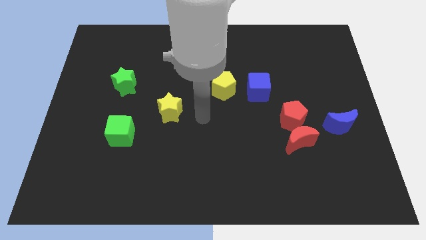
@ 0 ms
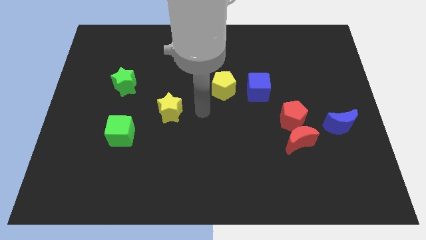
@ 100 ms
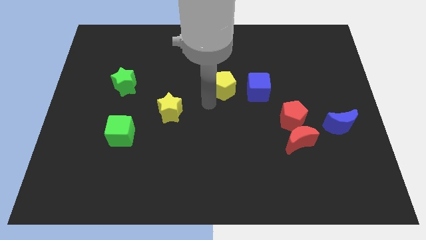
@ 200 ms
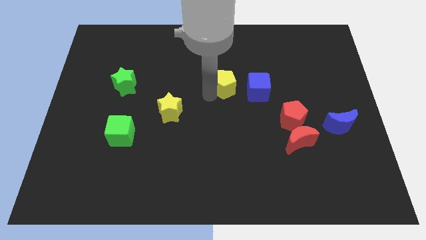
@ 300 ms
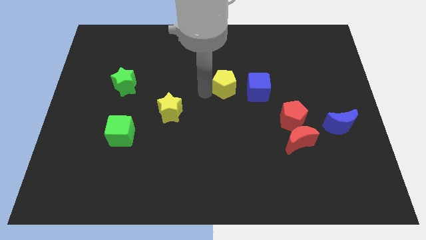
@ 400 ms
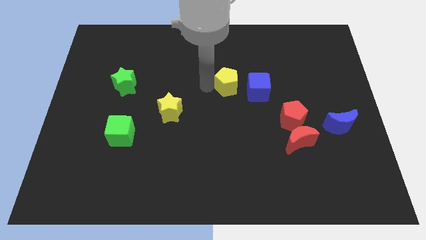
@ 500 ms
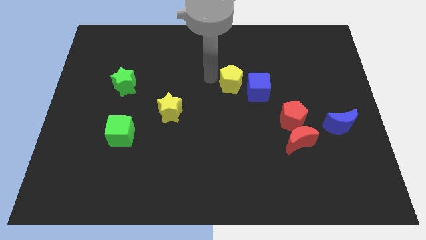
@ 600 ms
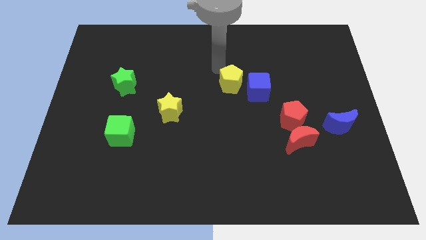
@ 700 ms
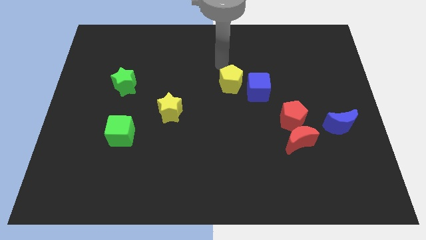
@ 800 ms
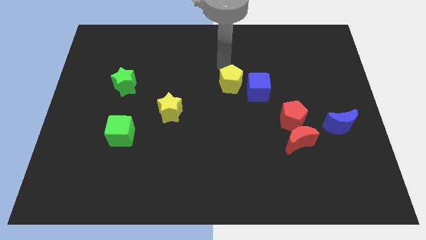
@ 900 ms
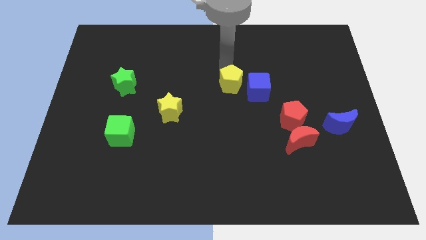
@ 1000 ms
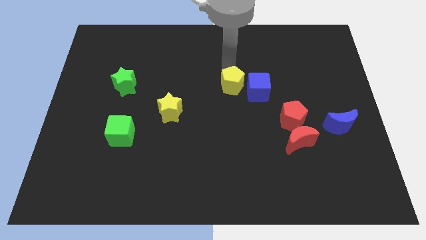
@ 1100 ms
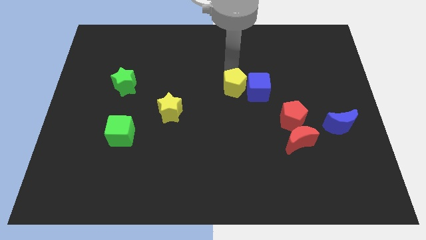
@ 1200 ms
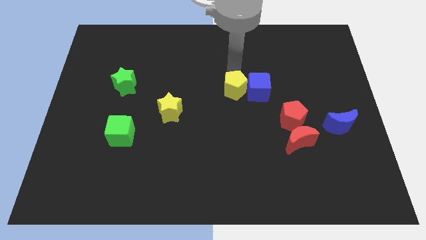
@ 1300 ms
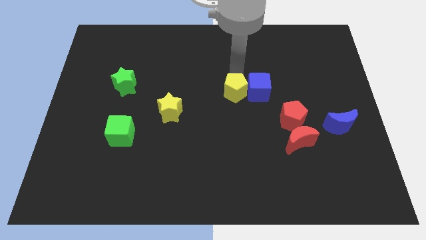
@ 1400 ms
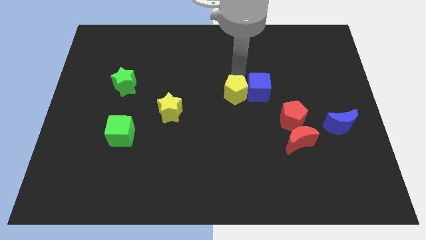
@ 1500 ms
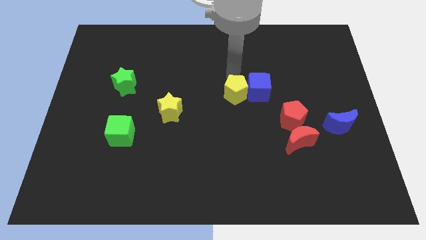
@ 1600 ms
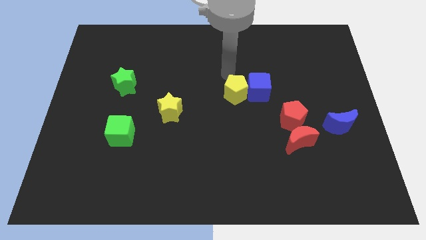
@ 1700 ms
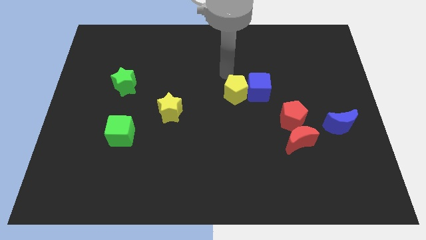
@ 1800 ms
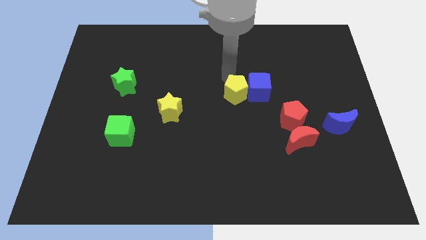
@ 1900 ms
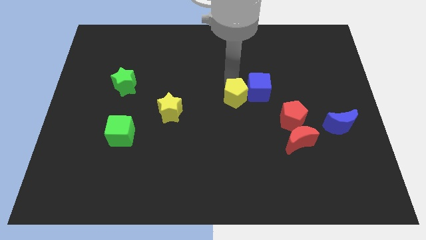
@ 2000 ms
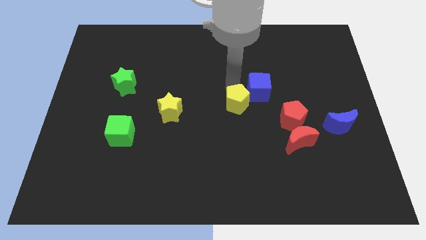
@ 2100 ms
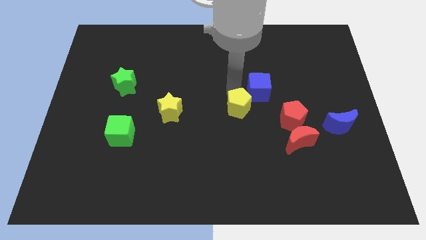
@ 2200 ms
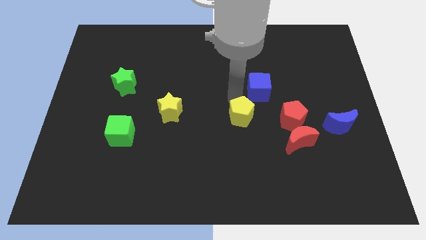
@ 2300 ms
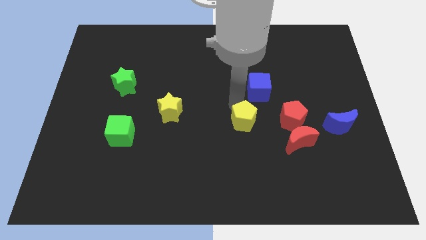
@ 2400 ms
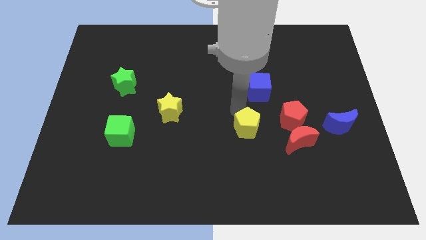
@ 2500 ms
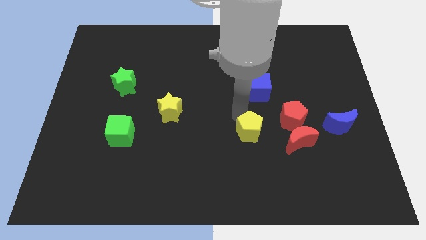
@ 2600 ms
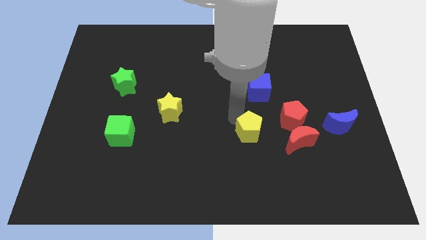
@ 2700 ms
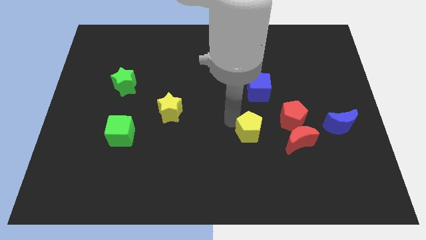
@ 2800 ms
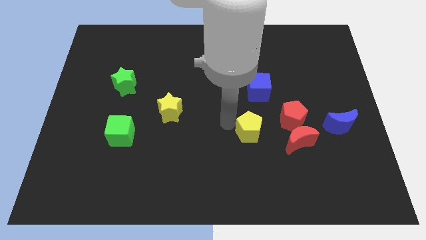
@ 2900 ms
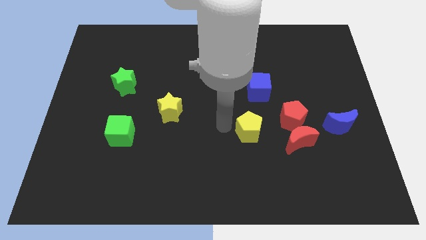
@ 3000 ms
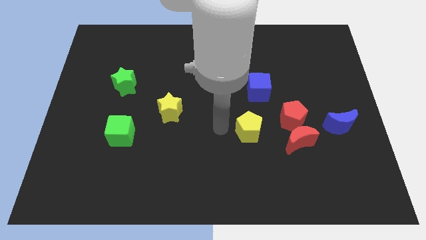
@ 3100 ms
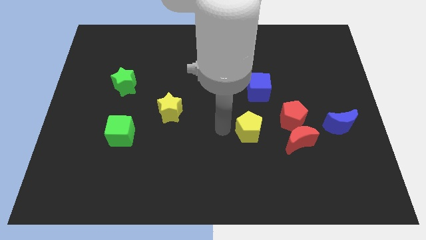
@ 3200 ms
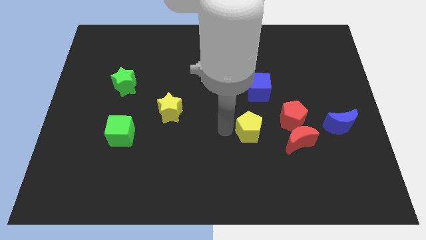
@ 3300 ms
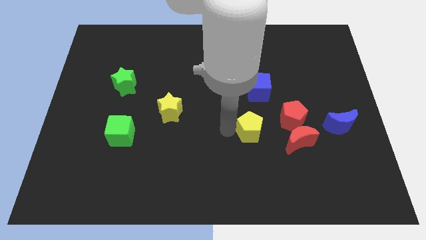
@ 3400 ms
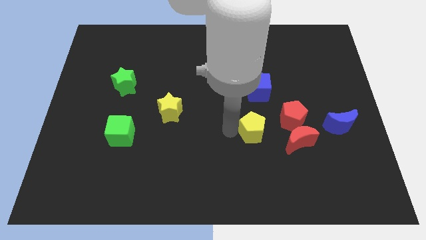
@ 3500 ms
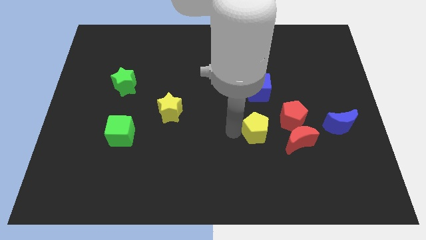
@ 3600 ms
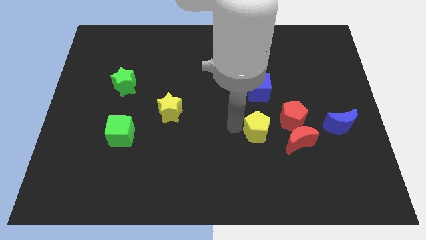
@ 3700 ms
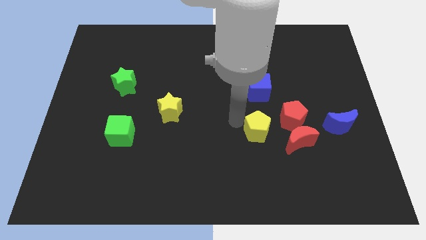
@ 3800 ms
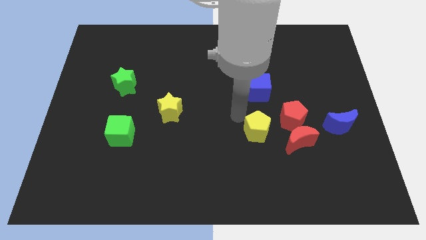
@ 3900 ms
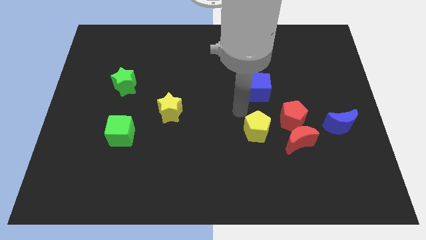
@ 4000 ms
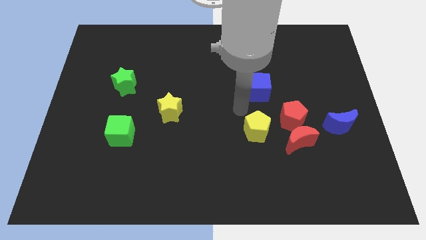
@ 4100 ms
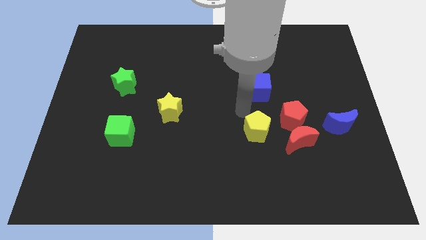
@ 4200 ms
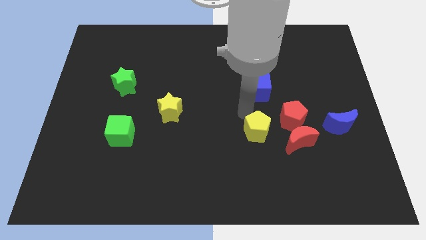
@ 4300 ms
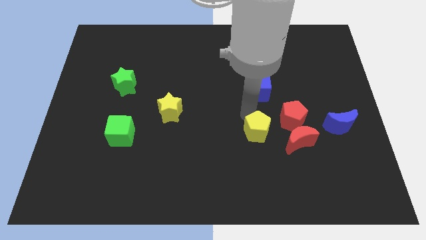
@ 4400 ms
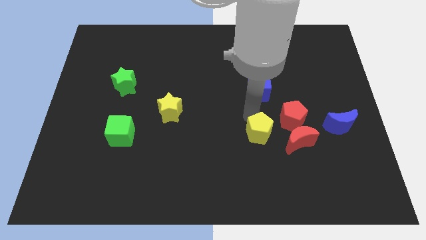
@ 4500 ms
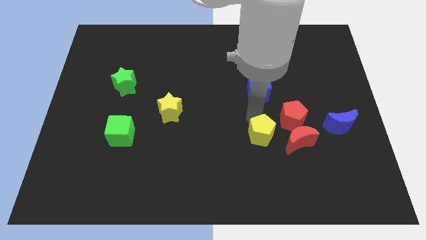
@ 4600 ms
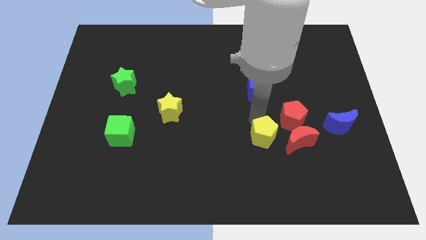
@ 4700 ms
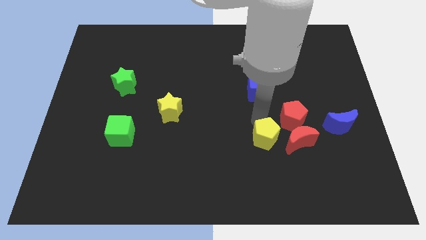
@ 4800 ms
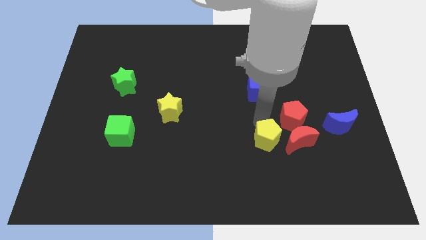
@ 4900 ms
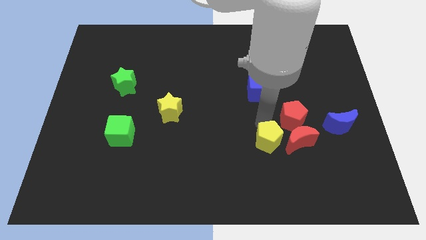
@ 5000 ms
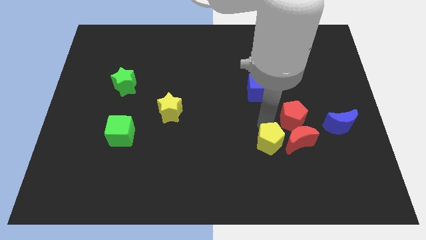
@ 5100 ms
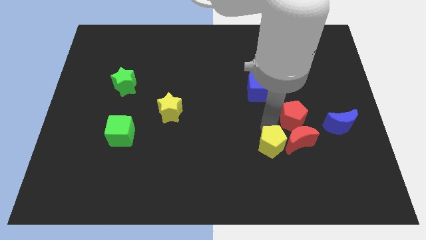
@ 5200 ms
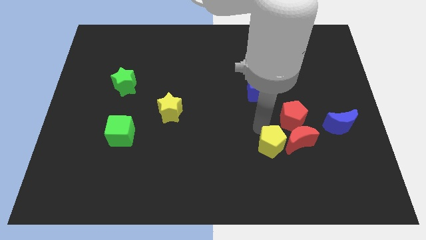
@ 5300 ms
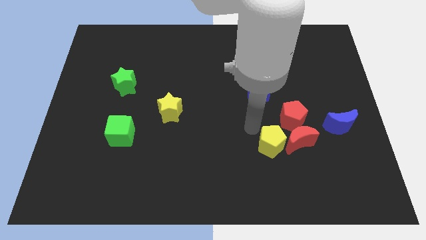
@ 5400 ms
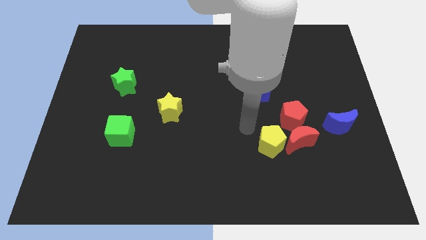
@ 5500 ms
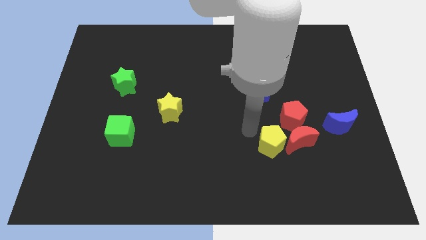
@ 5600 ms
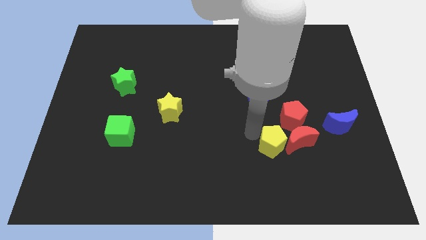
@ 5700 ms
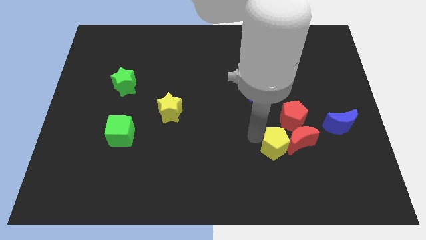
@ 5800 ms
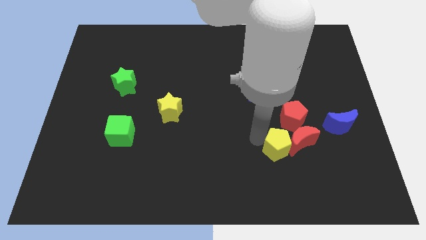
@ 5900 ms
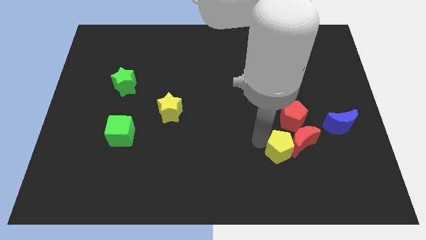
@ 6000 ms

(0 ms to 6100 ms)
slide the yellow pentagon downwards and to the right

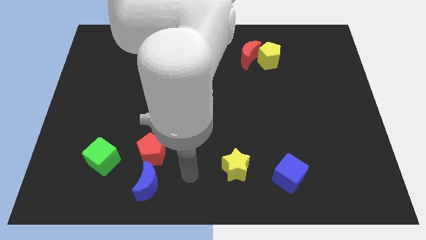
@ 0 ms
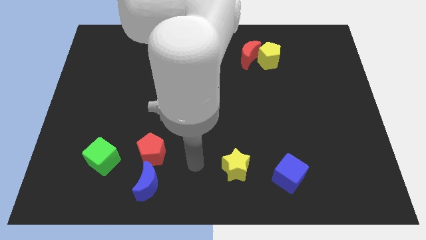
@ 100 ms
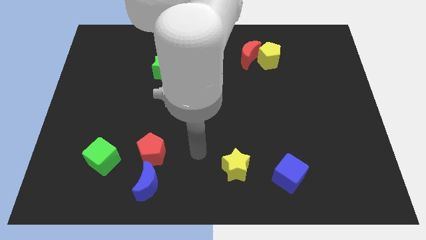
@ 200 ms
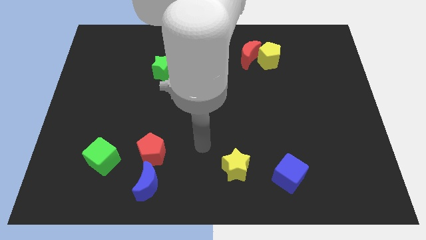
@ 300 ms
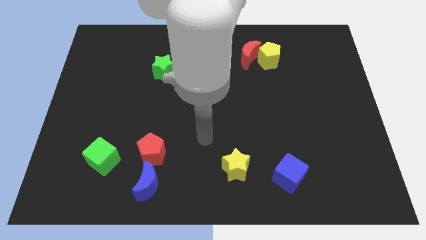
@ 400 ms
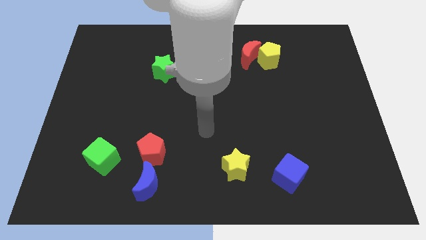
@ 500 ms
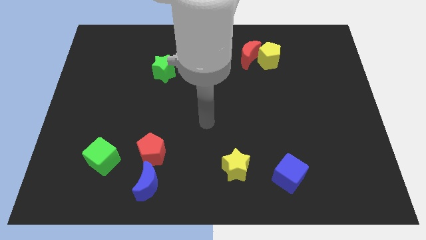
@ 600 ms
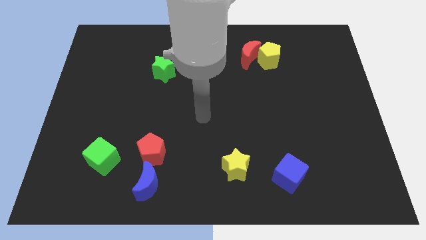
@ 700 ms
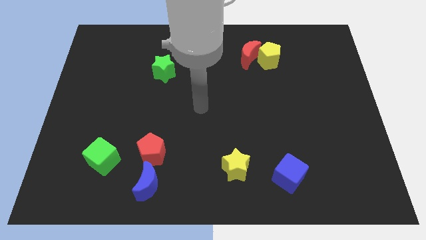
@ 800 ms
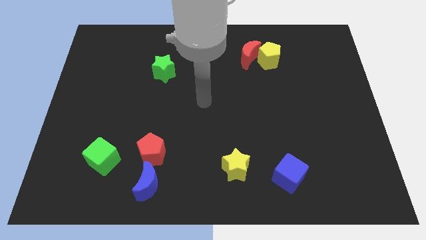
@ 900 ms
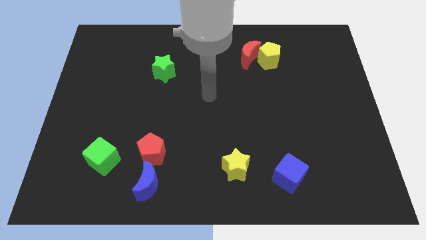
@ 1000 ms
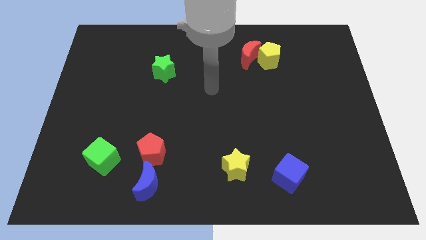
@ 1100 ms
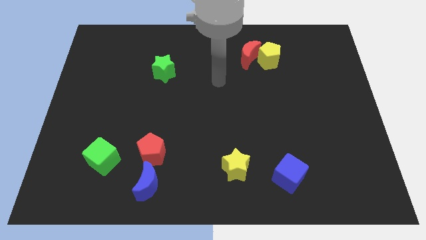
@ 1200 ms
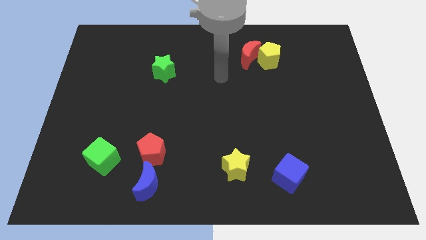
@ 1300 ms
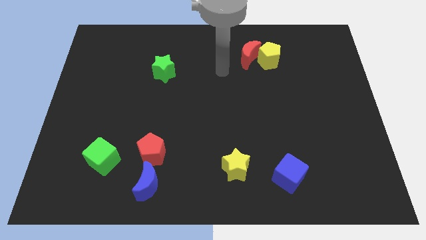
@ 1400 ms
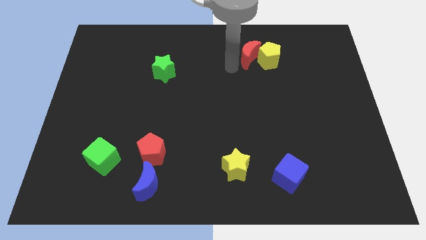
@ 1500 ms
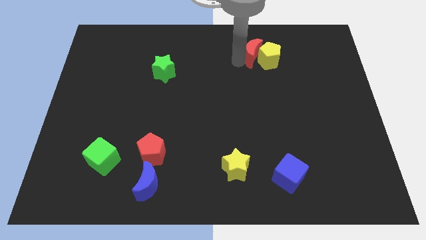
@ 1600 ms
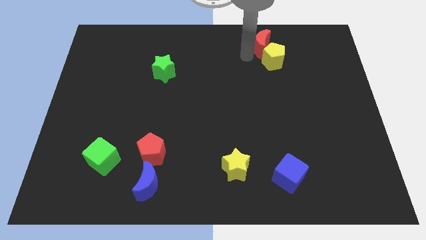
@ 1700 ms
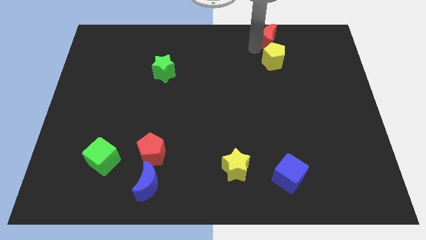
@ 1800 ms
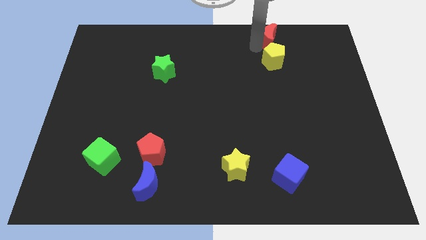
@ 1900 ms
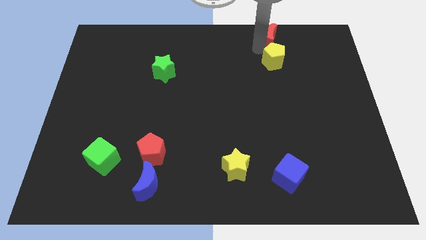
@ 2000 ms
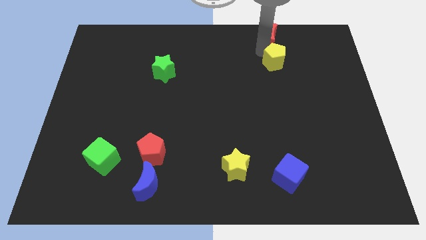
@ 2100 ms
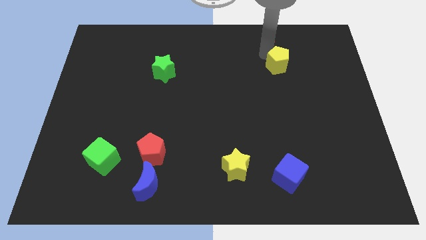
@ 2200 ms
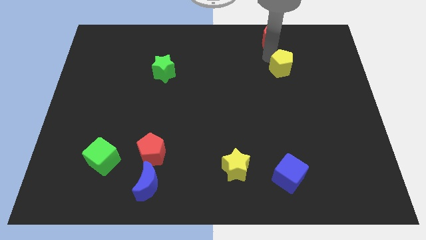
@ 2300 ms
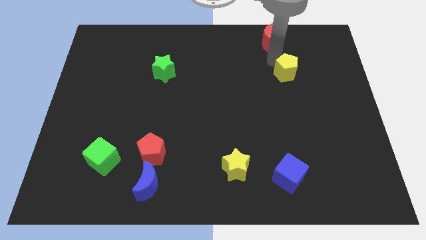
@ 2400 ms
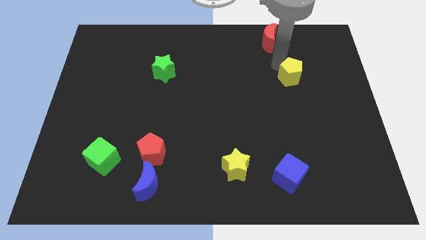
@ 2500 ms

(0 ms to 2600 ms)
slightly slide the yellow pentagon diagonally down and right
